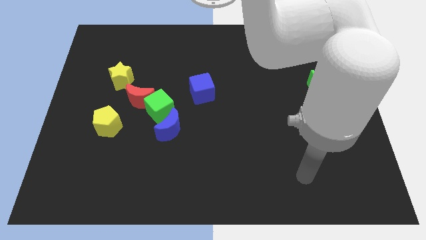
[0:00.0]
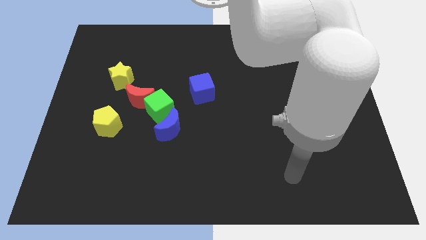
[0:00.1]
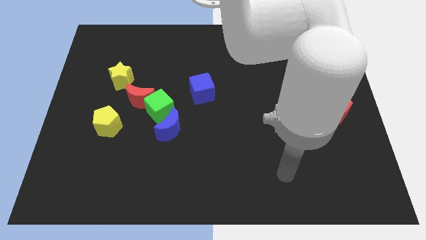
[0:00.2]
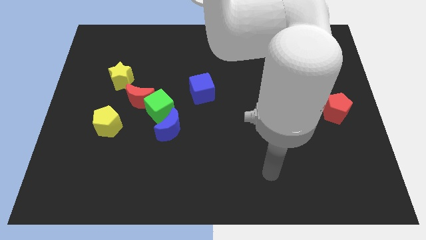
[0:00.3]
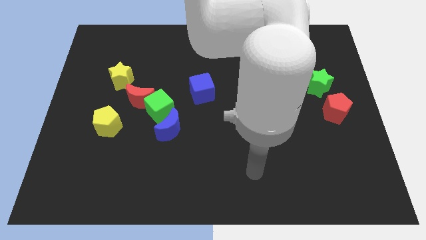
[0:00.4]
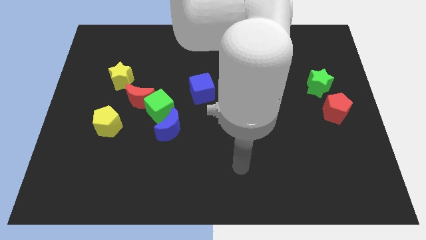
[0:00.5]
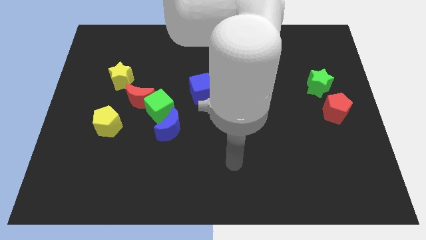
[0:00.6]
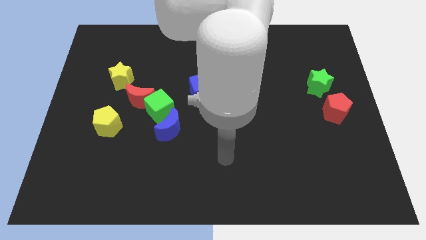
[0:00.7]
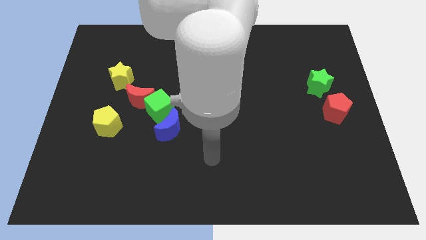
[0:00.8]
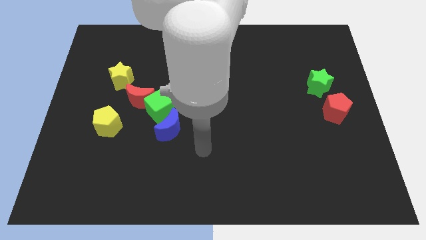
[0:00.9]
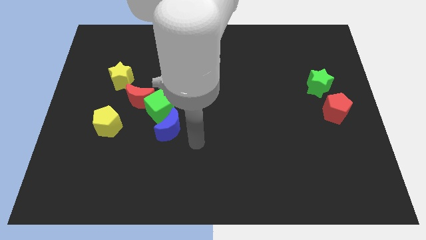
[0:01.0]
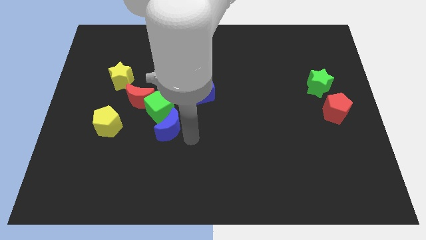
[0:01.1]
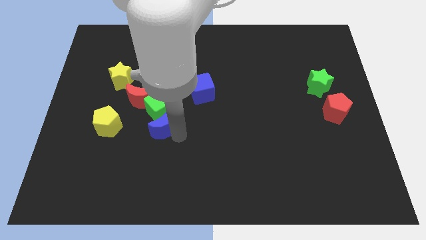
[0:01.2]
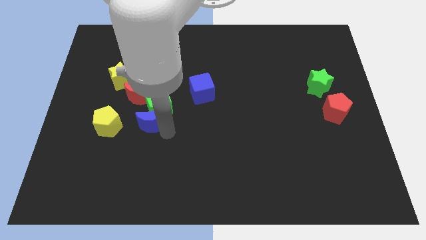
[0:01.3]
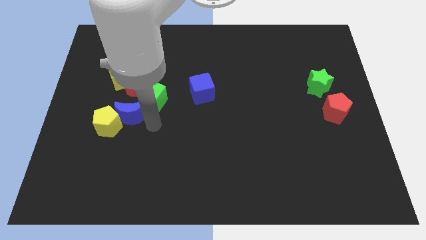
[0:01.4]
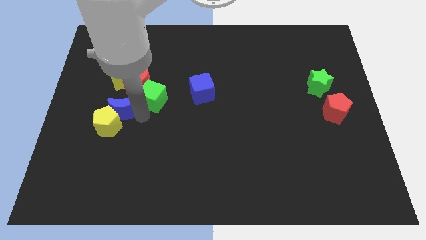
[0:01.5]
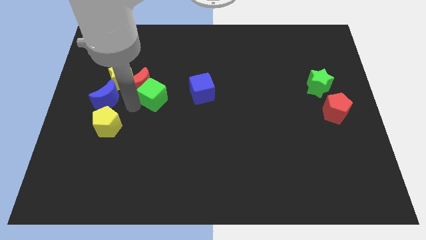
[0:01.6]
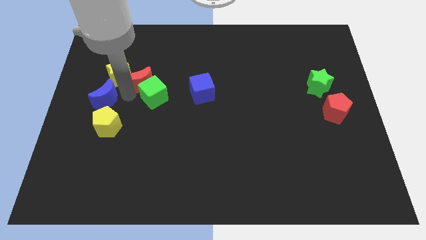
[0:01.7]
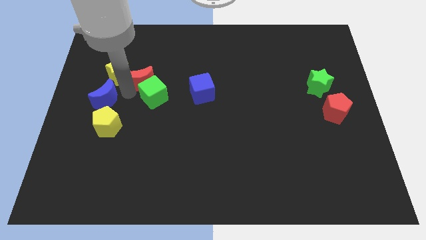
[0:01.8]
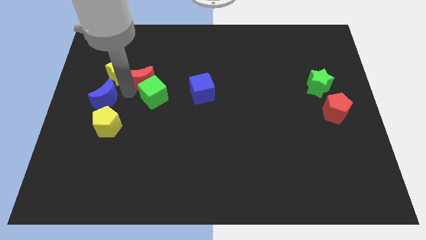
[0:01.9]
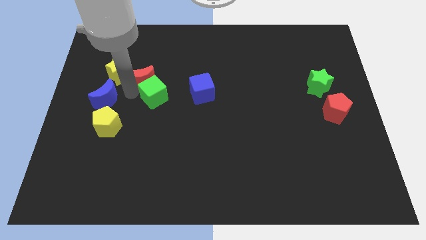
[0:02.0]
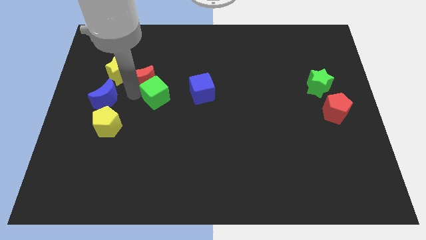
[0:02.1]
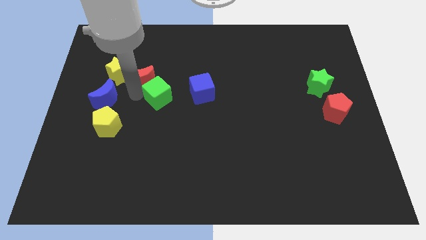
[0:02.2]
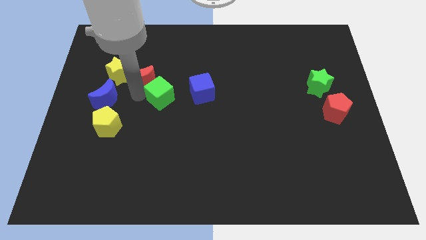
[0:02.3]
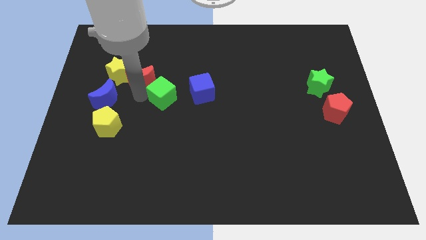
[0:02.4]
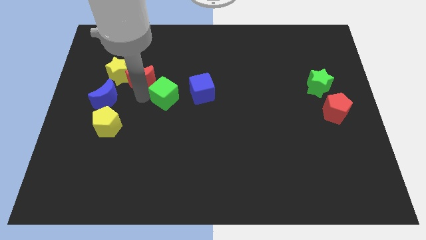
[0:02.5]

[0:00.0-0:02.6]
pull the green cube apart from the red moon and blue moon

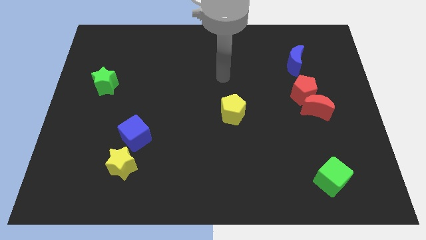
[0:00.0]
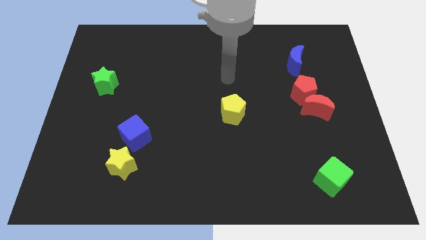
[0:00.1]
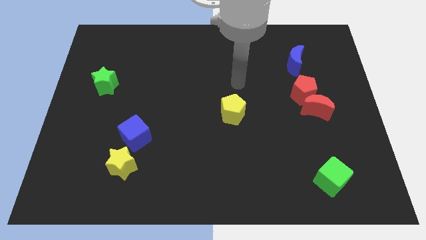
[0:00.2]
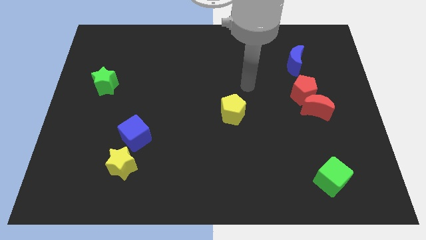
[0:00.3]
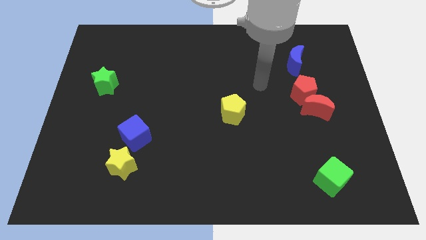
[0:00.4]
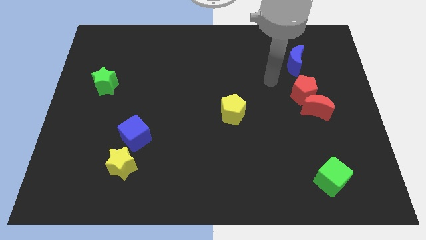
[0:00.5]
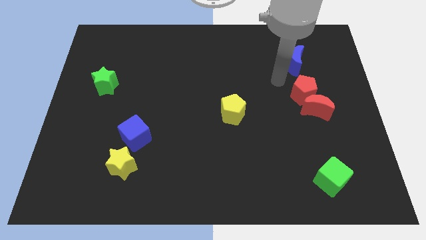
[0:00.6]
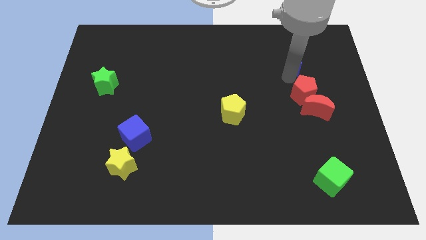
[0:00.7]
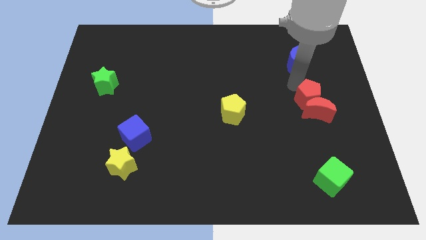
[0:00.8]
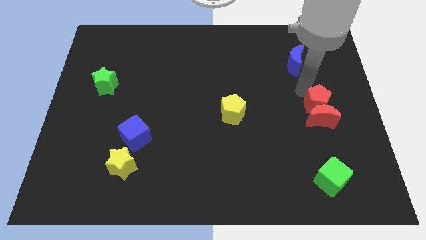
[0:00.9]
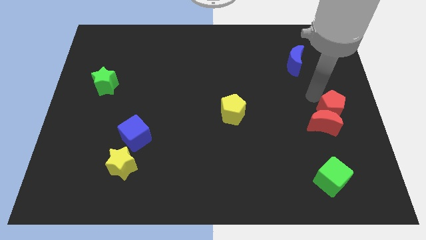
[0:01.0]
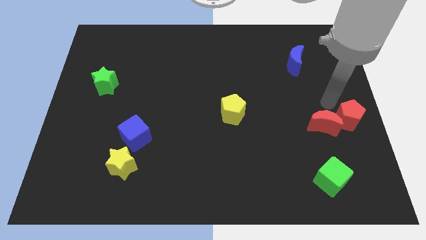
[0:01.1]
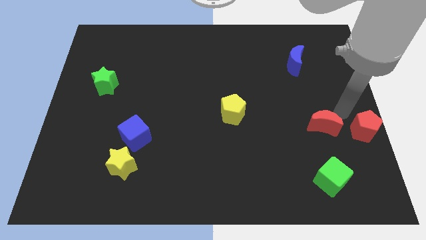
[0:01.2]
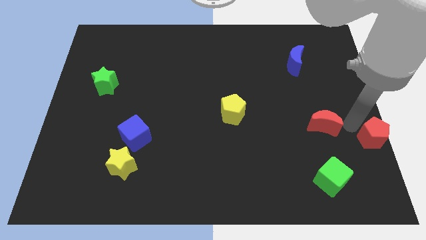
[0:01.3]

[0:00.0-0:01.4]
separate the red moon from the red pentagon

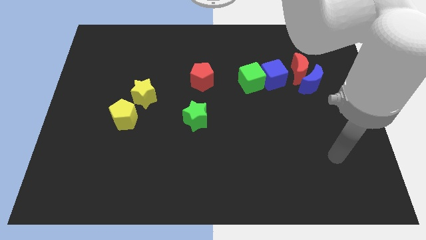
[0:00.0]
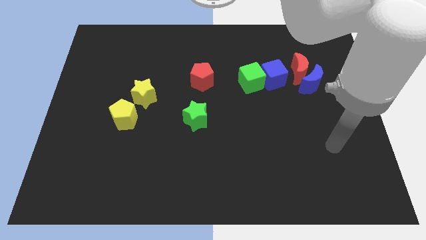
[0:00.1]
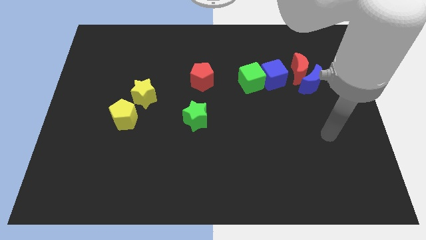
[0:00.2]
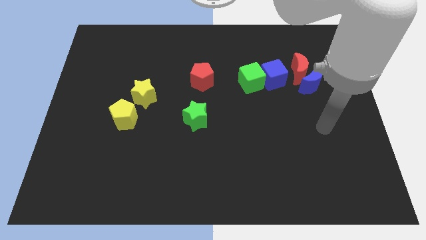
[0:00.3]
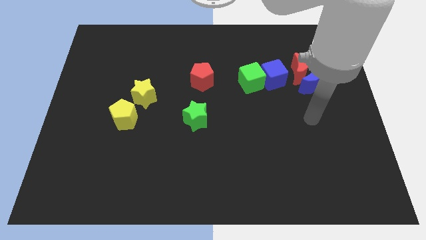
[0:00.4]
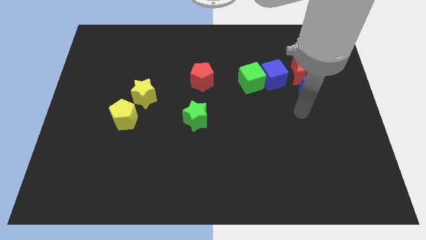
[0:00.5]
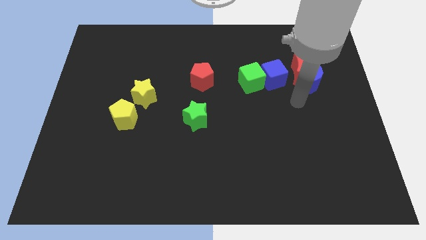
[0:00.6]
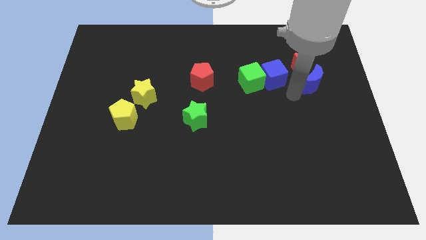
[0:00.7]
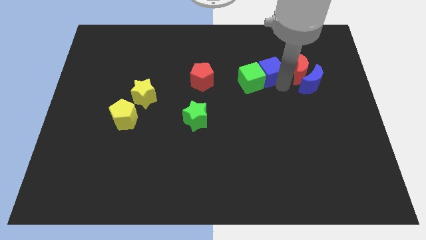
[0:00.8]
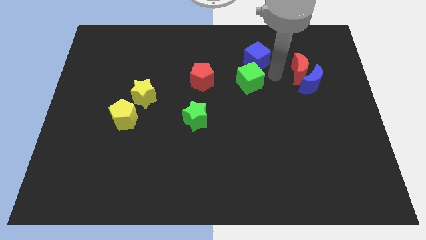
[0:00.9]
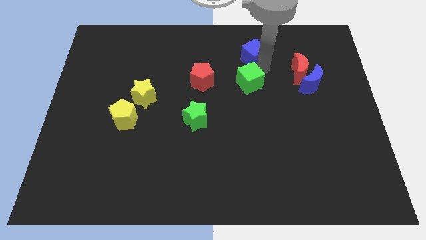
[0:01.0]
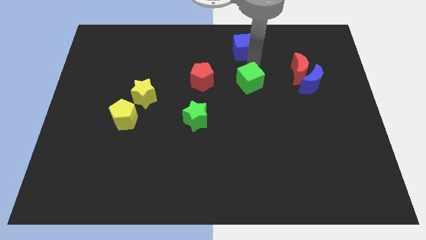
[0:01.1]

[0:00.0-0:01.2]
move the green cube away from the blue cube

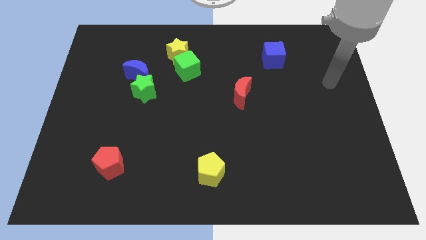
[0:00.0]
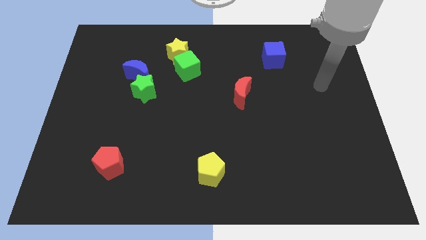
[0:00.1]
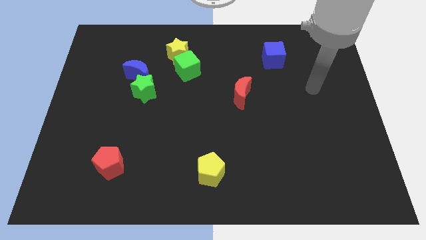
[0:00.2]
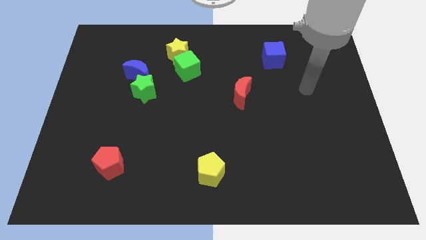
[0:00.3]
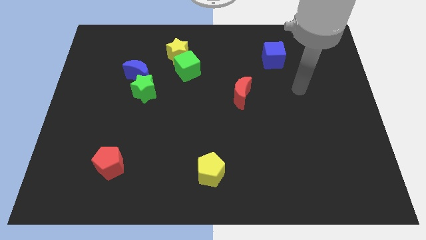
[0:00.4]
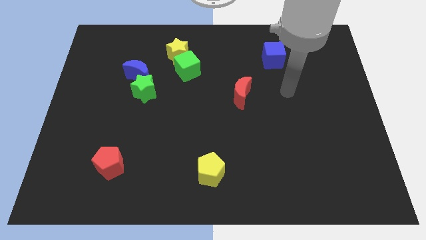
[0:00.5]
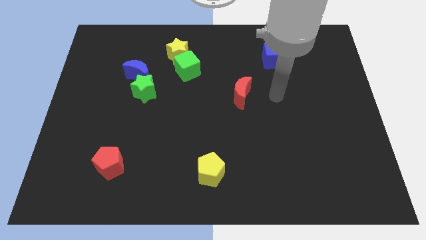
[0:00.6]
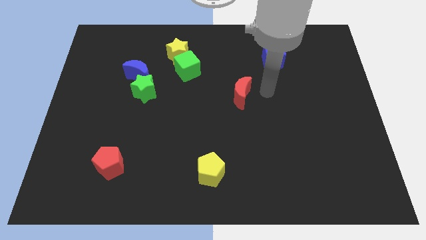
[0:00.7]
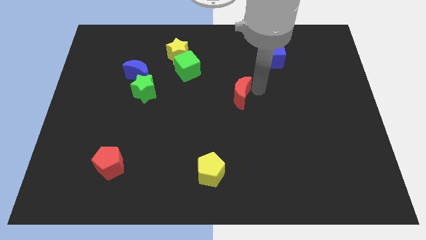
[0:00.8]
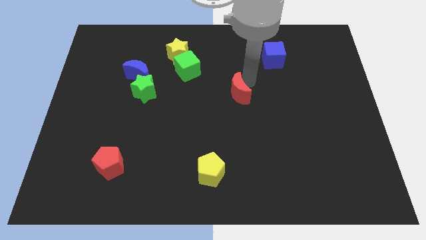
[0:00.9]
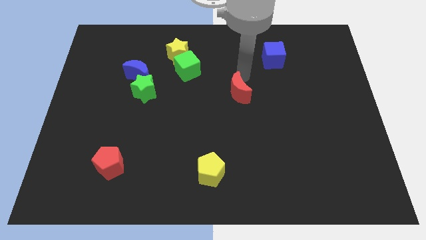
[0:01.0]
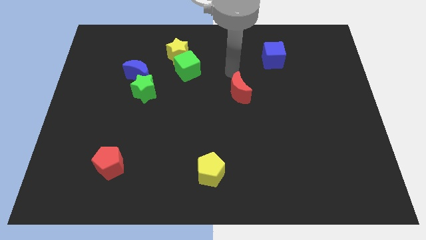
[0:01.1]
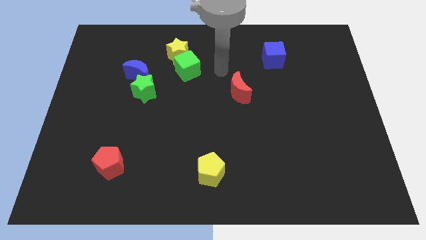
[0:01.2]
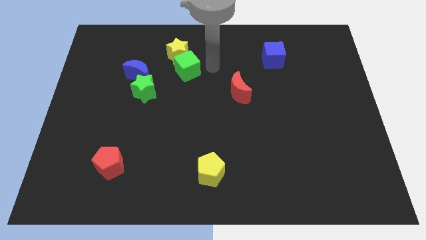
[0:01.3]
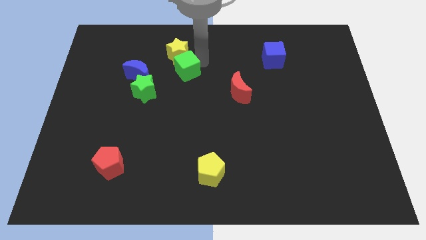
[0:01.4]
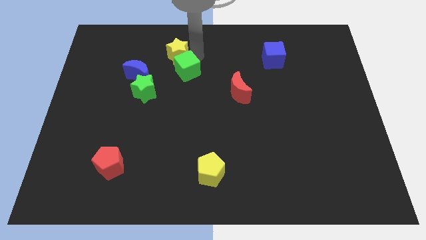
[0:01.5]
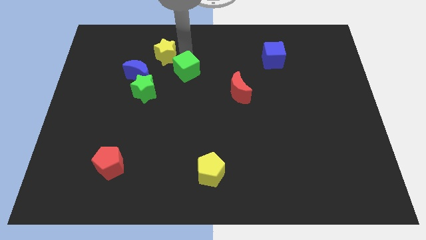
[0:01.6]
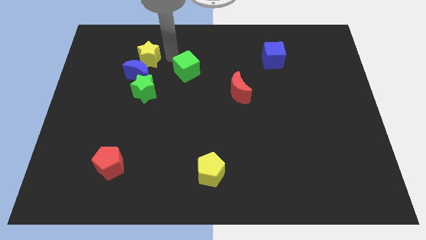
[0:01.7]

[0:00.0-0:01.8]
move the green cube away from the yellow star

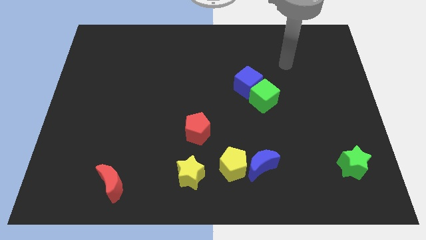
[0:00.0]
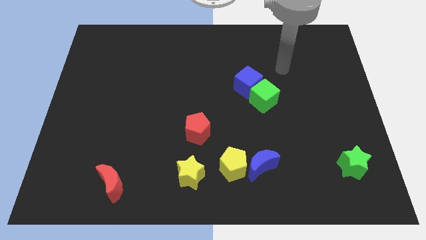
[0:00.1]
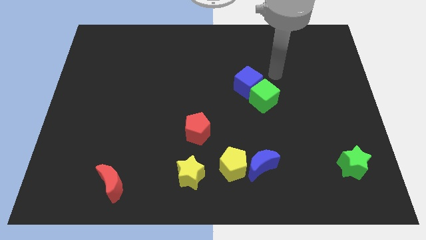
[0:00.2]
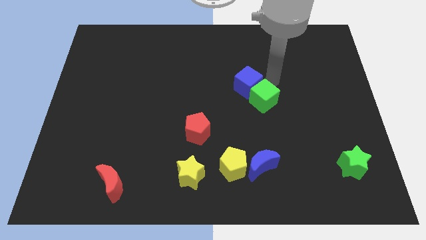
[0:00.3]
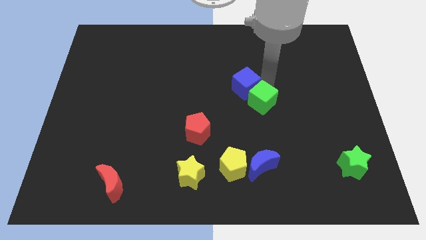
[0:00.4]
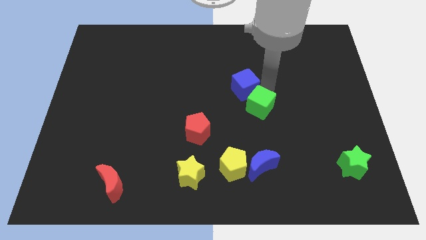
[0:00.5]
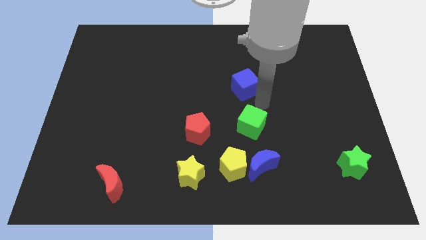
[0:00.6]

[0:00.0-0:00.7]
separate the blue cube from the green cube

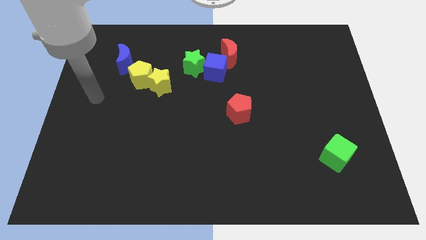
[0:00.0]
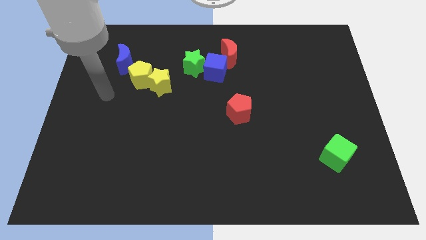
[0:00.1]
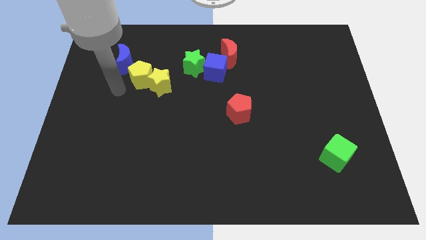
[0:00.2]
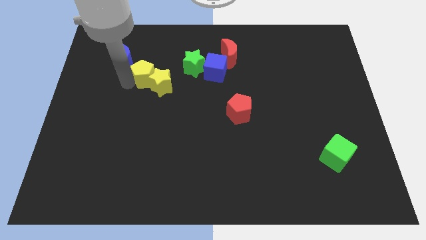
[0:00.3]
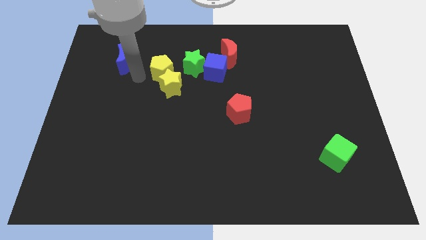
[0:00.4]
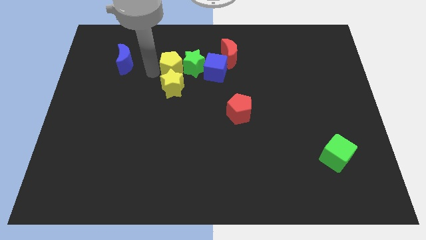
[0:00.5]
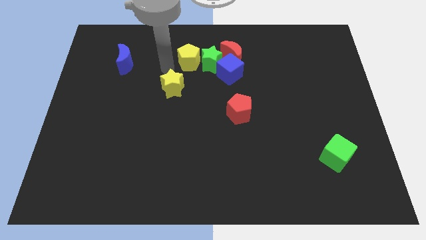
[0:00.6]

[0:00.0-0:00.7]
move the yellow star away from the yellow pentagon

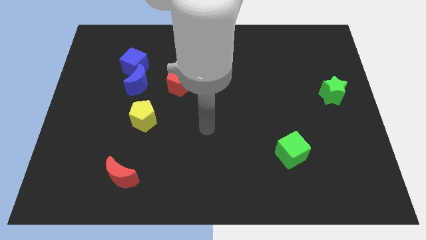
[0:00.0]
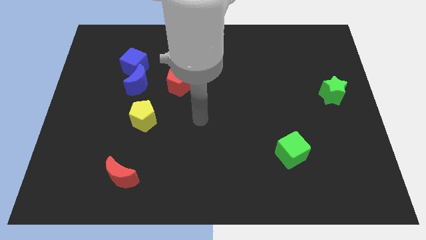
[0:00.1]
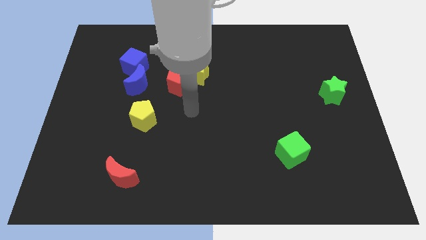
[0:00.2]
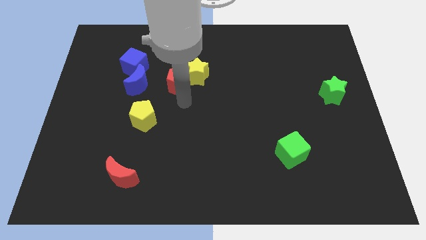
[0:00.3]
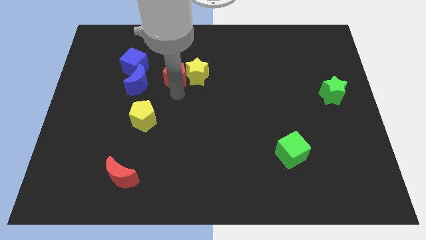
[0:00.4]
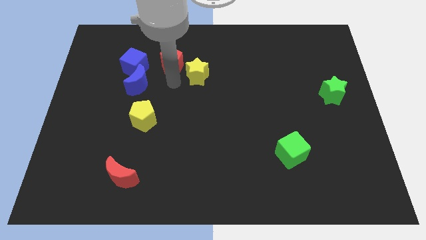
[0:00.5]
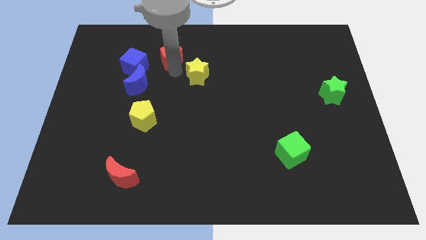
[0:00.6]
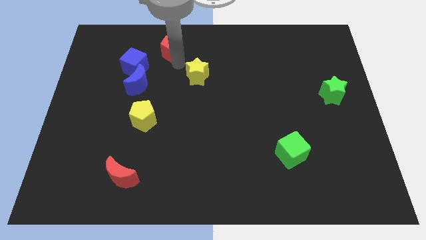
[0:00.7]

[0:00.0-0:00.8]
move the yellow star away from the red pentagon

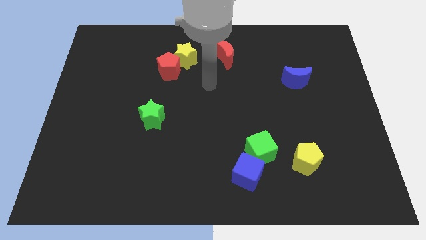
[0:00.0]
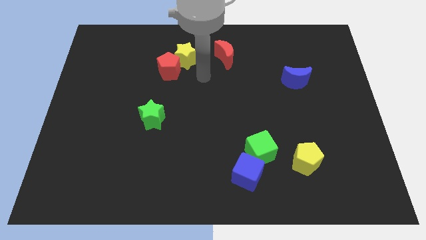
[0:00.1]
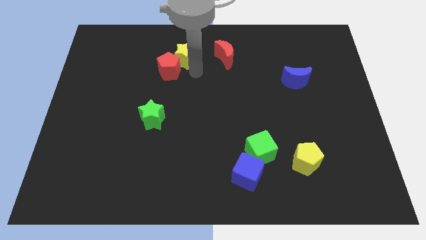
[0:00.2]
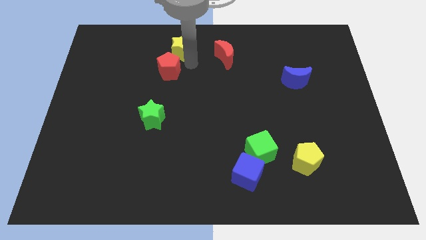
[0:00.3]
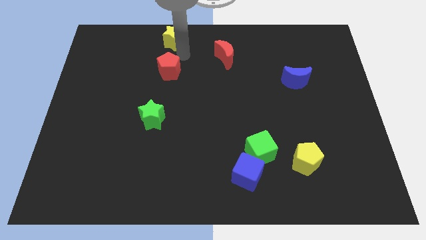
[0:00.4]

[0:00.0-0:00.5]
pull the red pentagon apart from the yellow star
